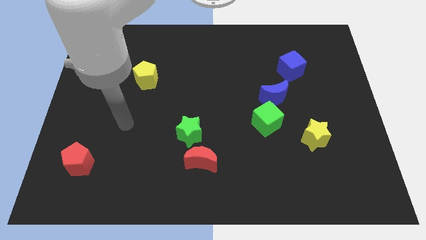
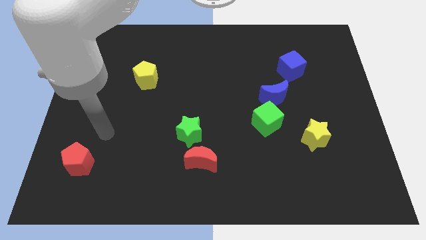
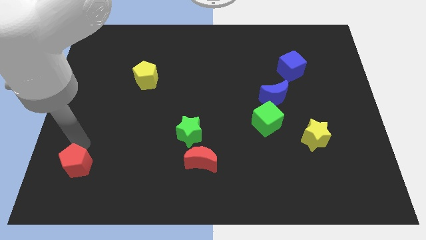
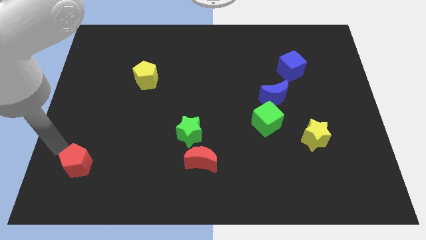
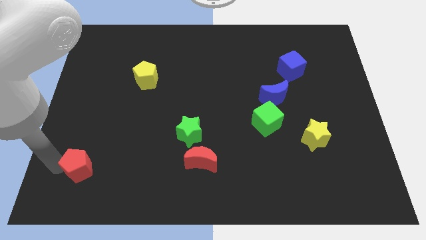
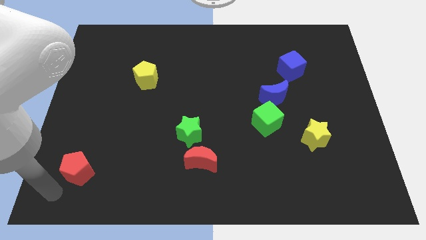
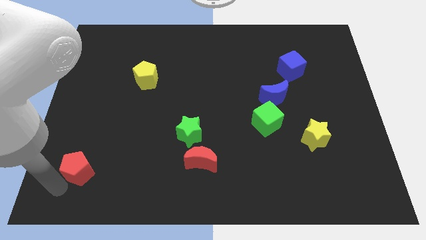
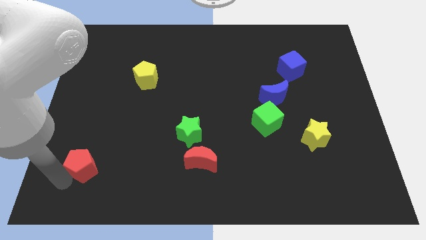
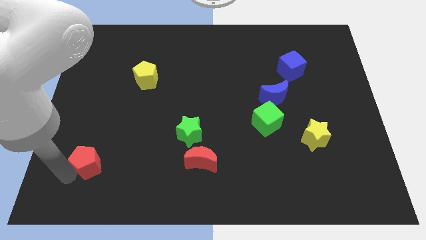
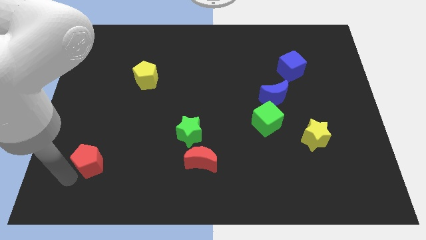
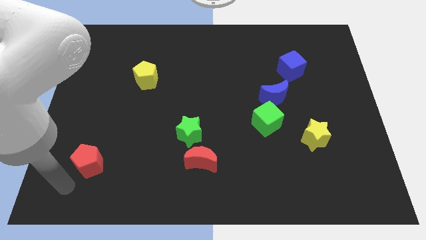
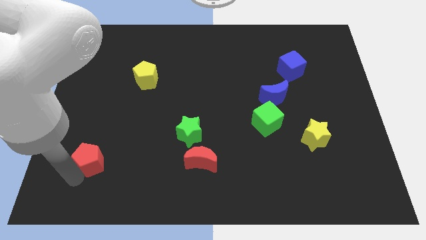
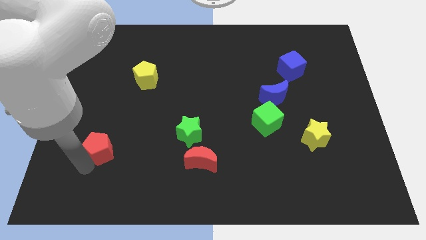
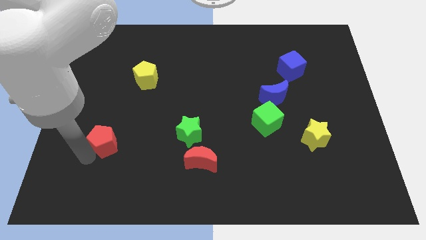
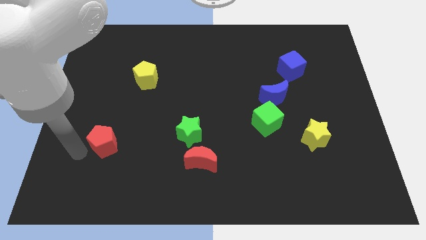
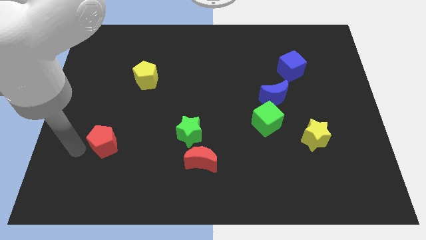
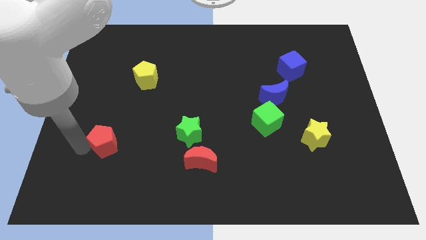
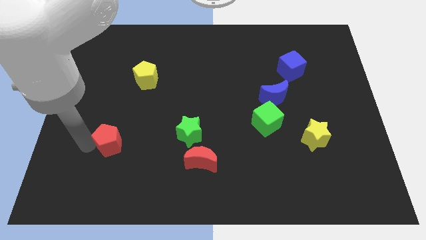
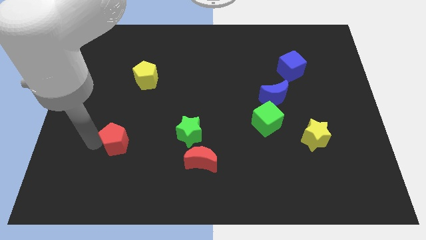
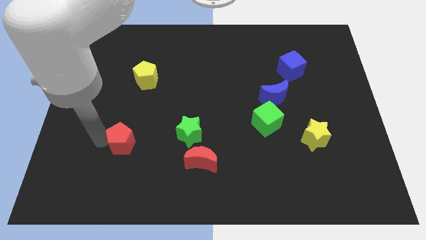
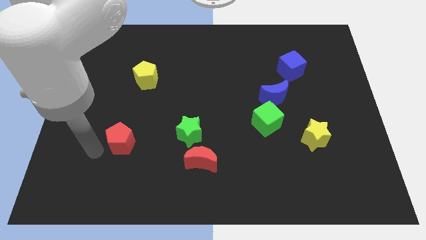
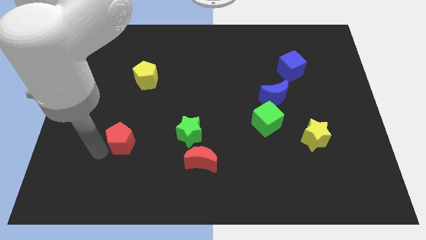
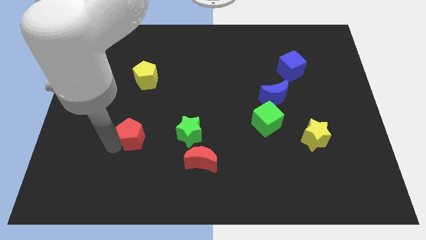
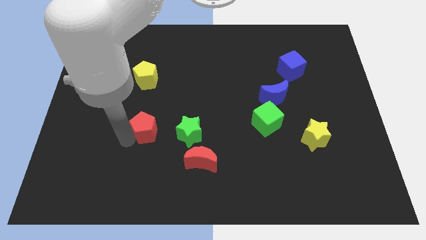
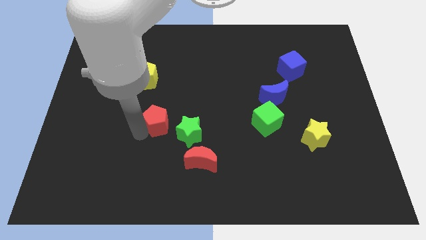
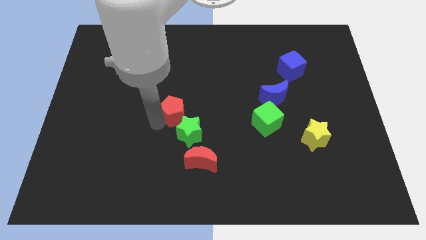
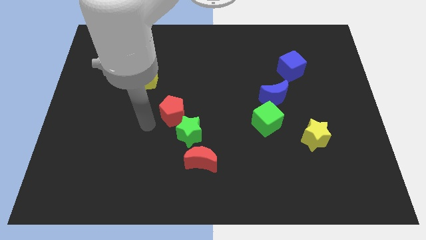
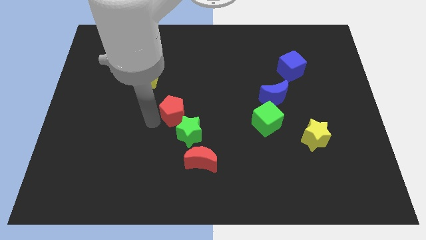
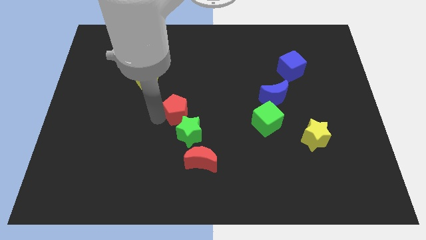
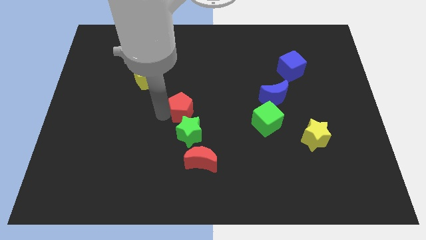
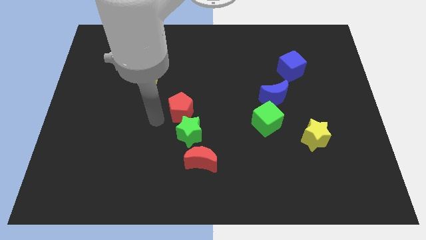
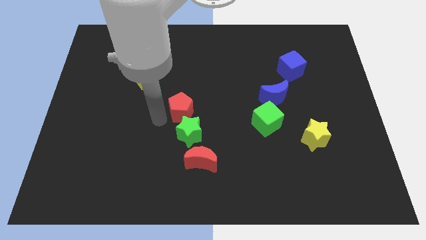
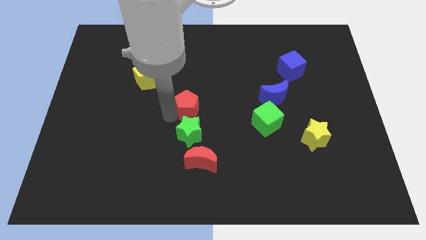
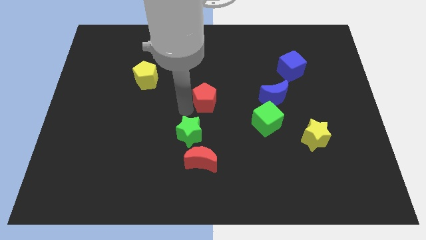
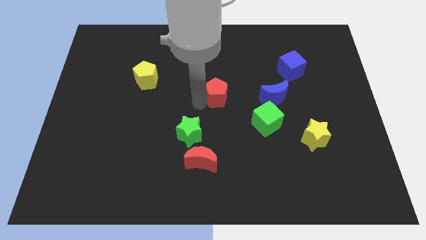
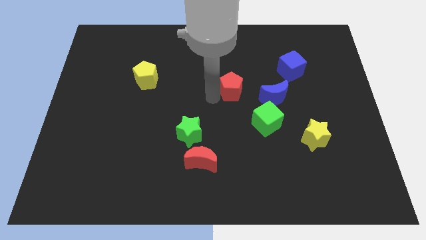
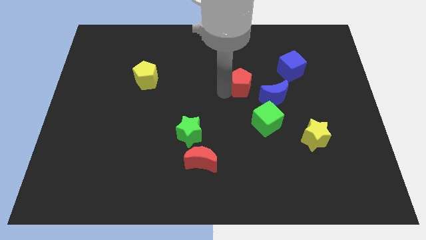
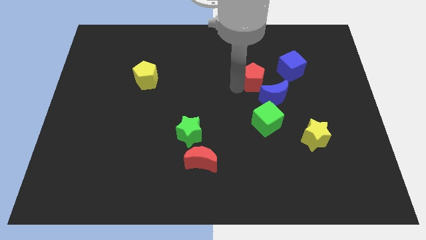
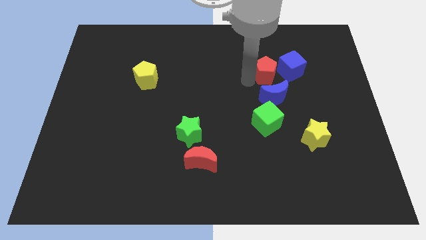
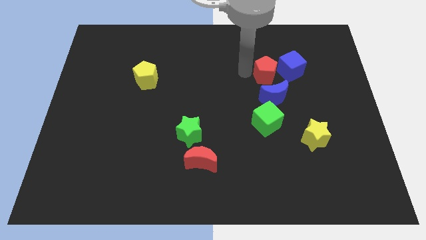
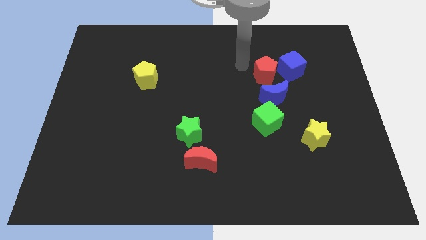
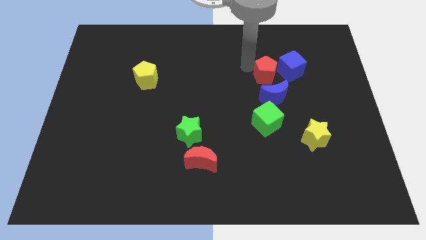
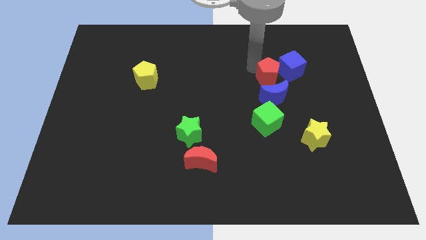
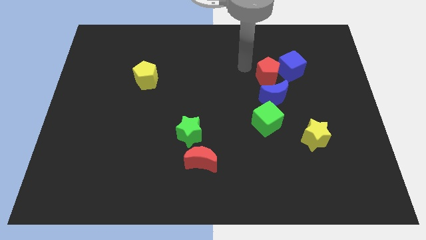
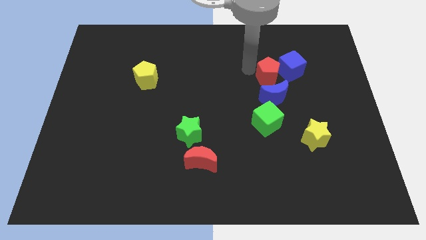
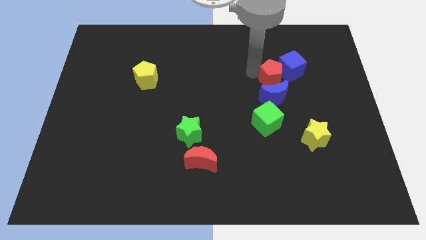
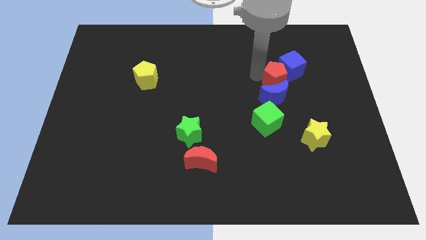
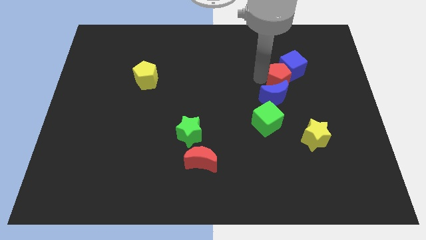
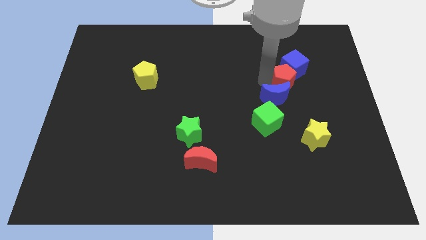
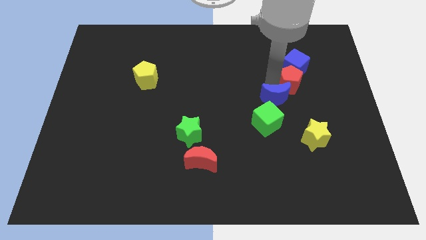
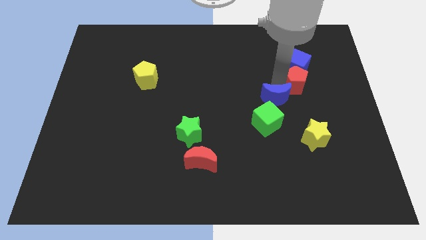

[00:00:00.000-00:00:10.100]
move the red pentagon to the bottom right of the blue cube

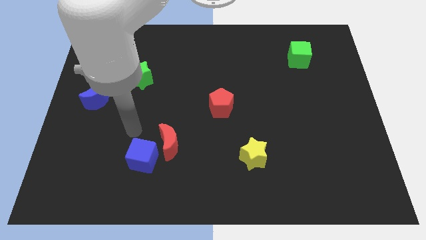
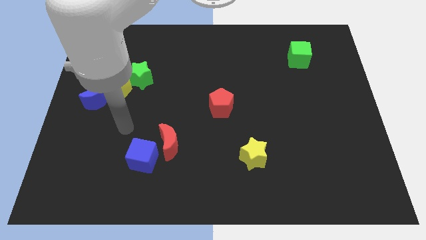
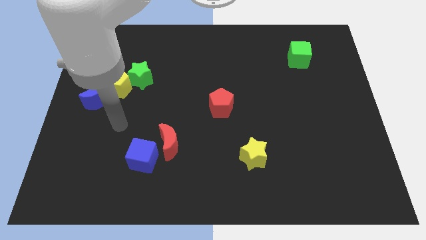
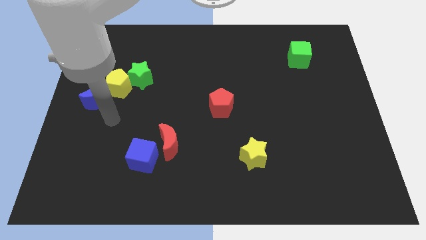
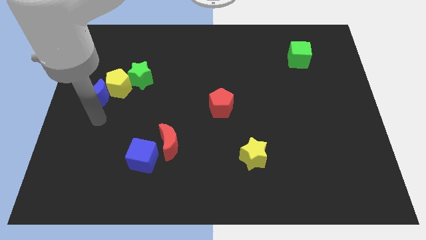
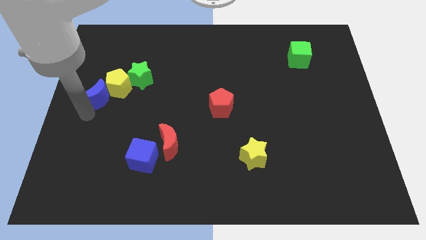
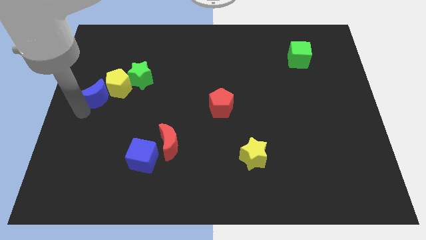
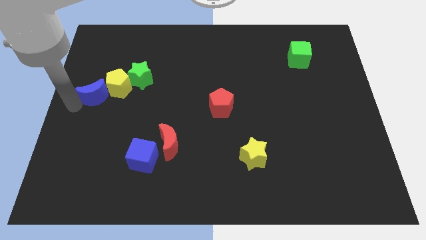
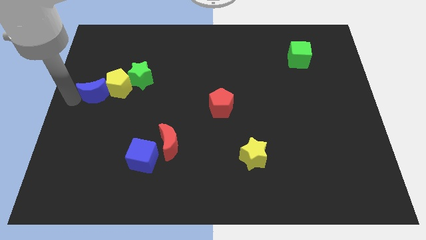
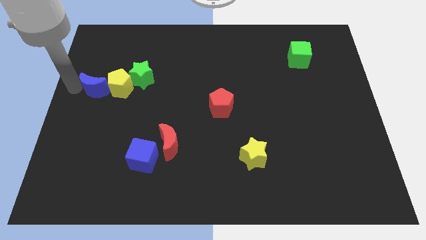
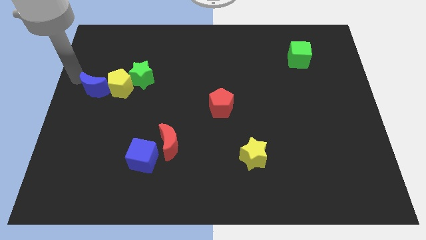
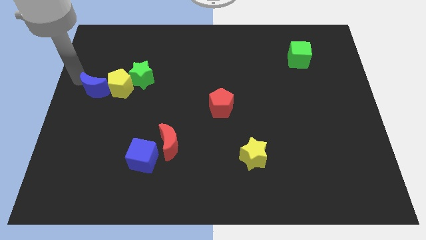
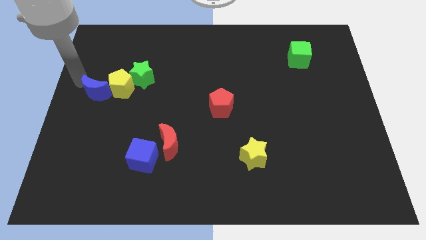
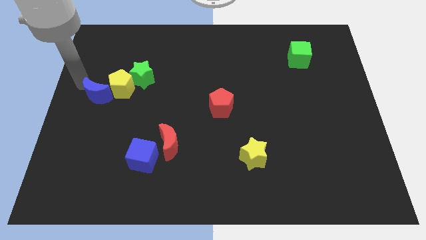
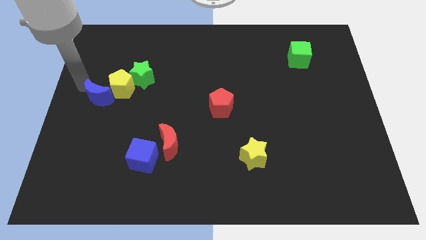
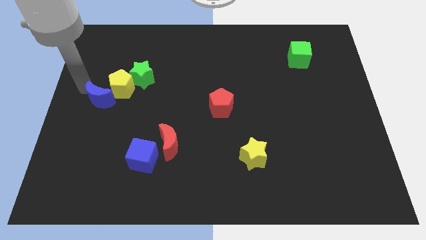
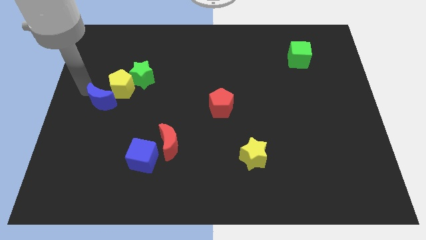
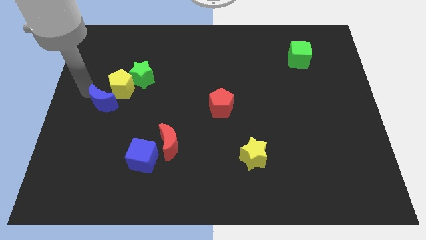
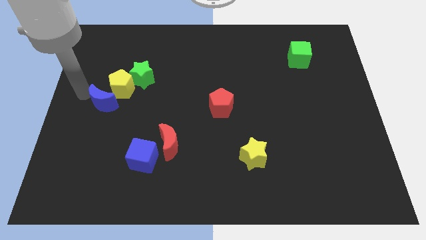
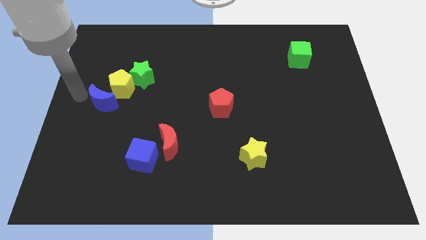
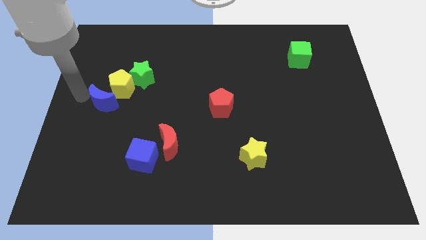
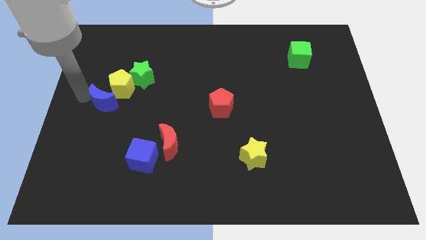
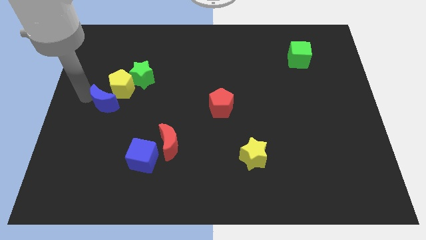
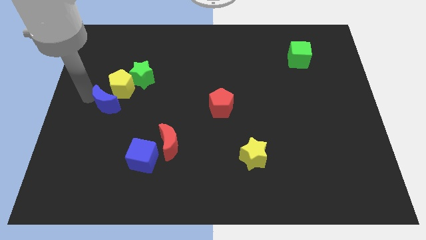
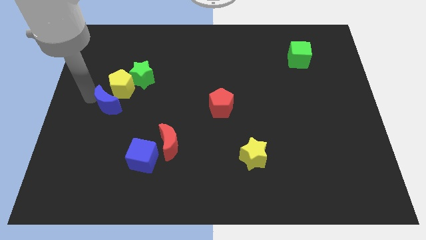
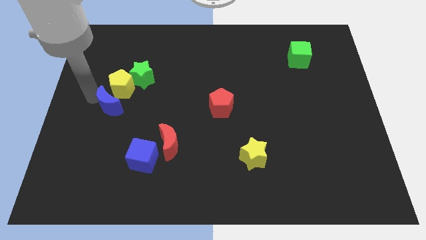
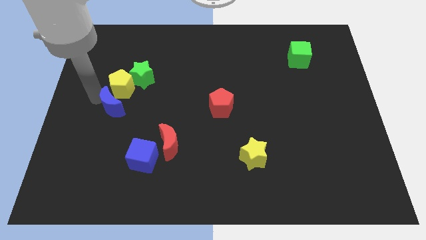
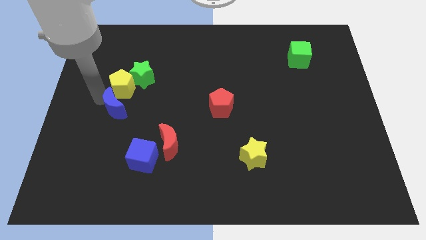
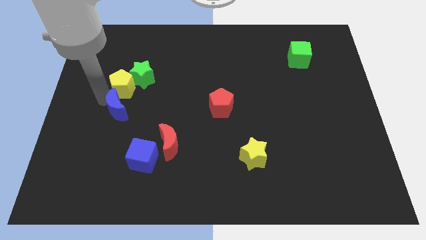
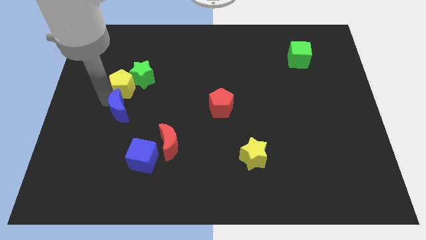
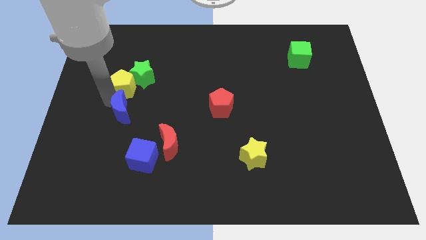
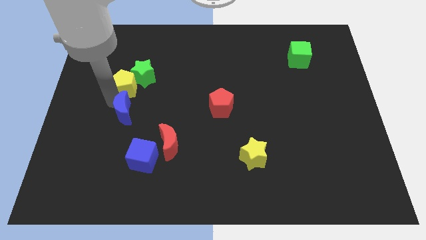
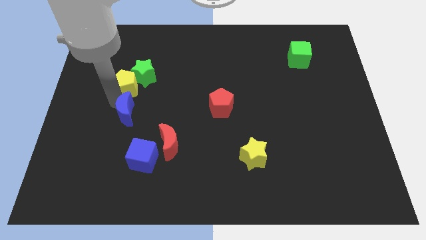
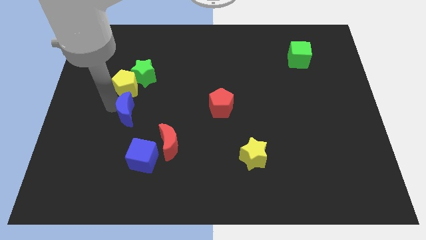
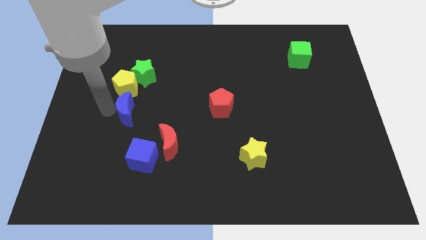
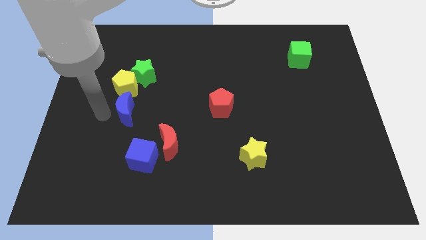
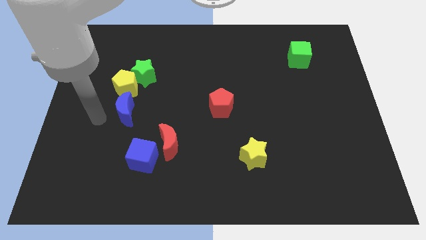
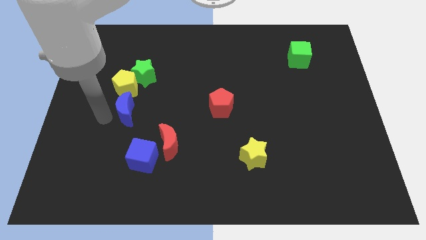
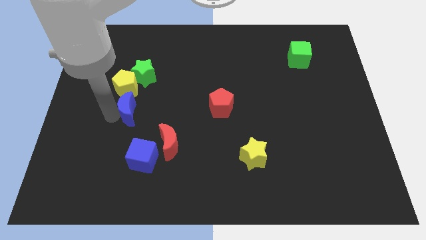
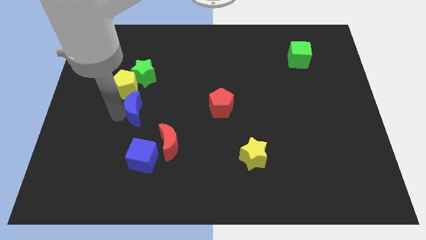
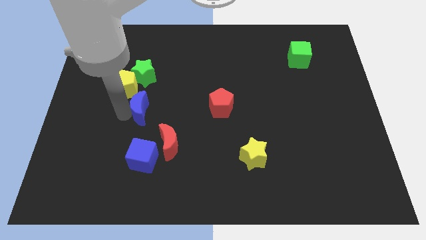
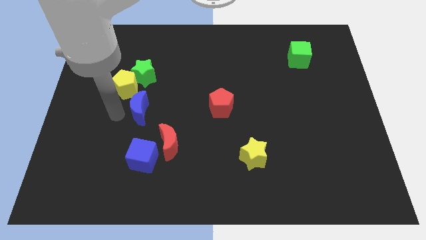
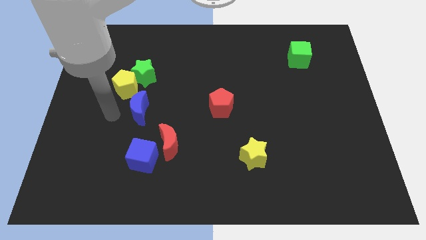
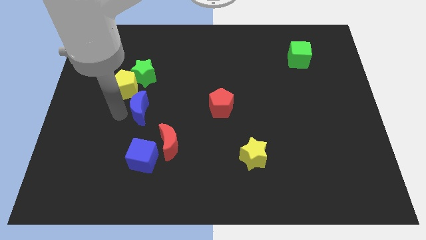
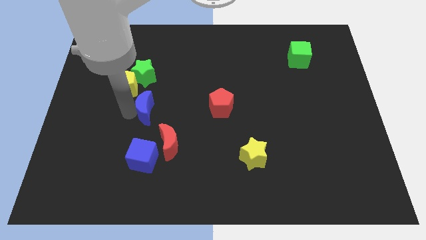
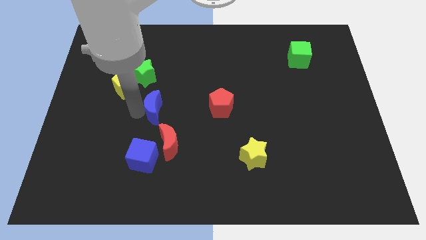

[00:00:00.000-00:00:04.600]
slide the blue moon left of the red pentagon
